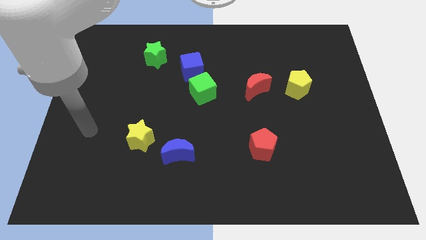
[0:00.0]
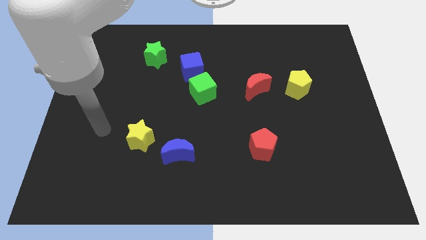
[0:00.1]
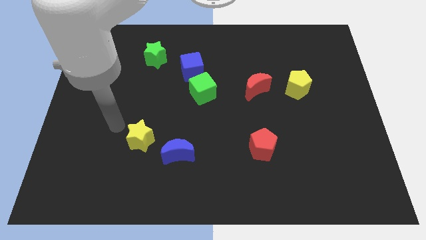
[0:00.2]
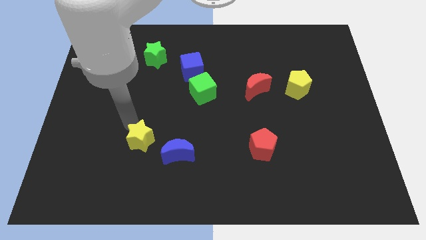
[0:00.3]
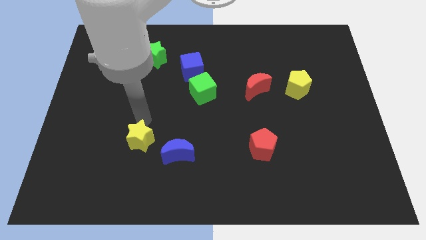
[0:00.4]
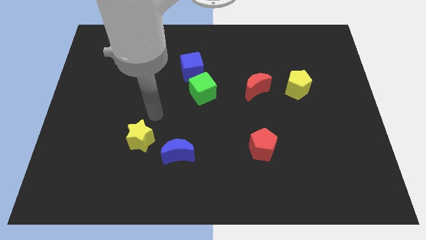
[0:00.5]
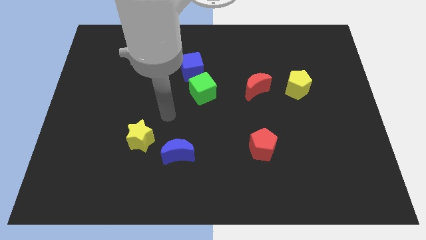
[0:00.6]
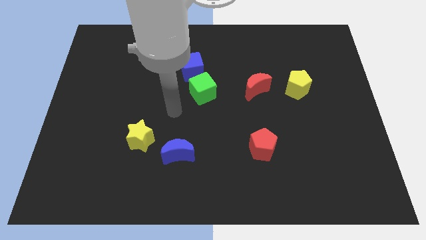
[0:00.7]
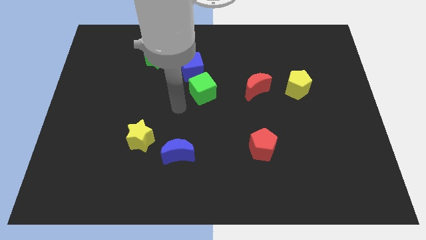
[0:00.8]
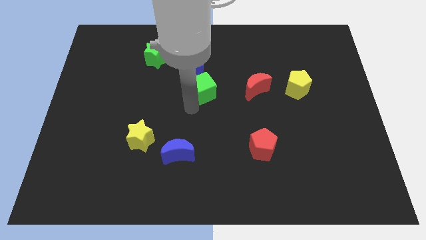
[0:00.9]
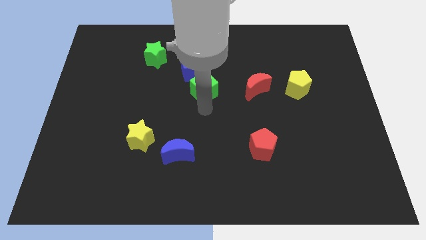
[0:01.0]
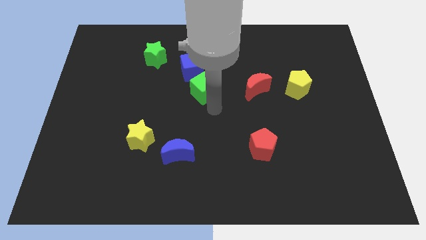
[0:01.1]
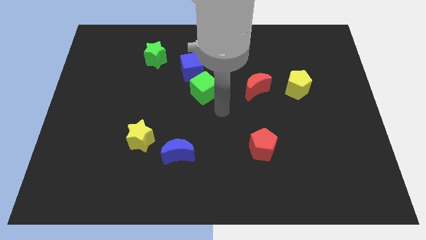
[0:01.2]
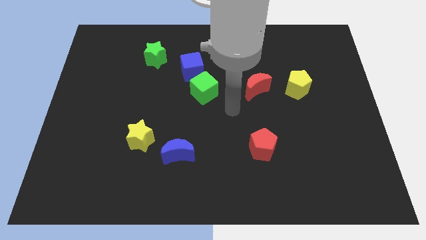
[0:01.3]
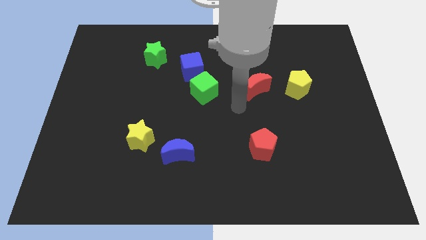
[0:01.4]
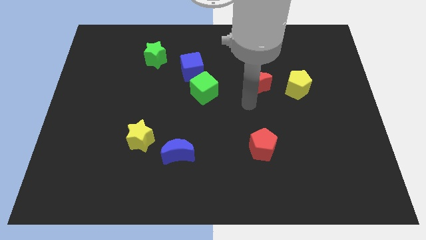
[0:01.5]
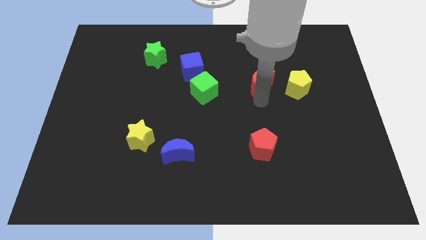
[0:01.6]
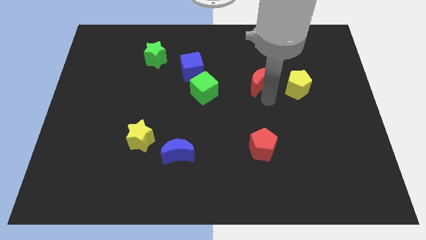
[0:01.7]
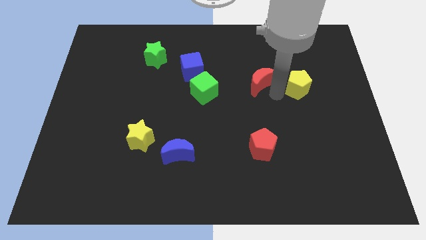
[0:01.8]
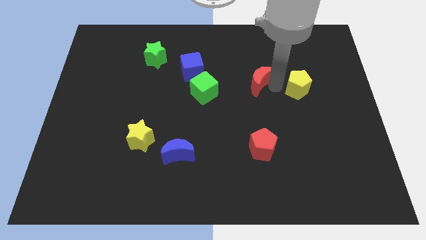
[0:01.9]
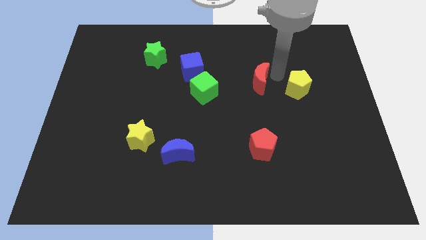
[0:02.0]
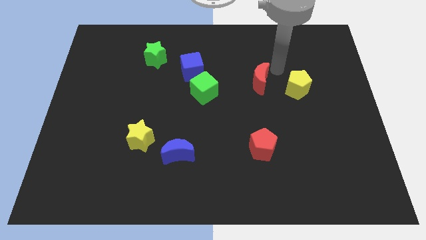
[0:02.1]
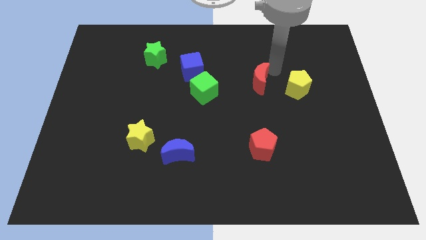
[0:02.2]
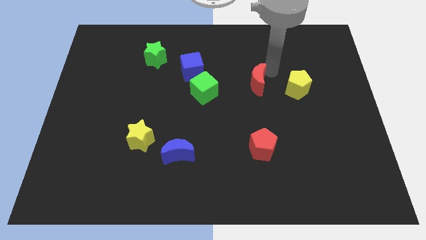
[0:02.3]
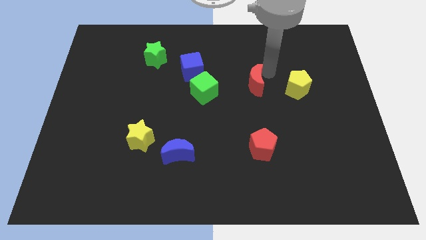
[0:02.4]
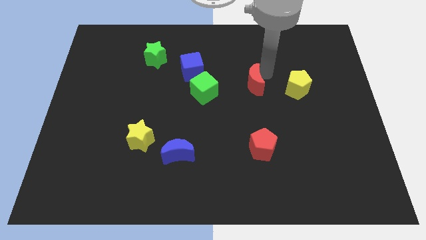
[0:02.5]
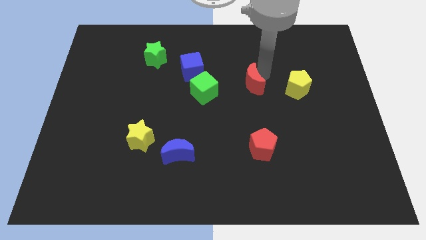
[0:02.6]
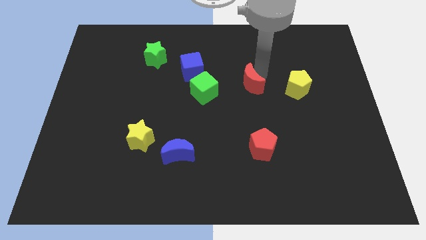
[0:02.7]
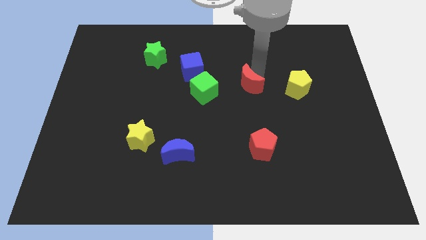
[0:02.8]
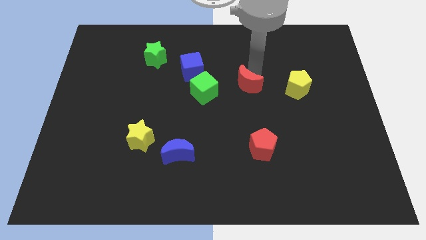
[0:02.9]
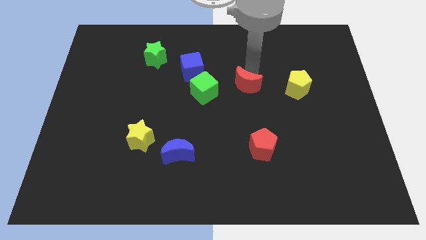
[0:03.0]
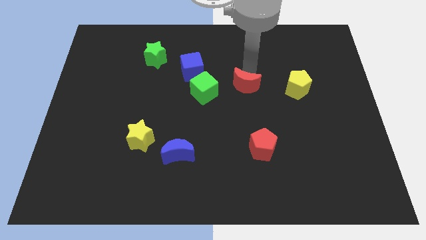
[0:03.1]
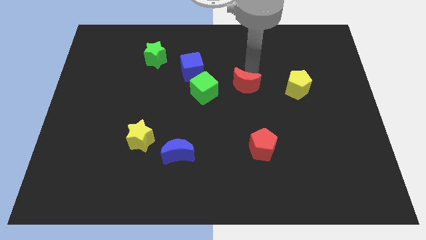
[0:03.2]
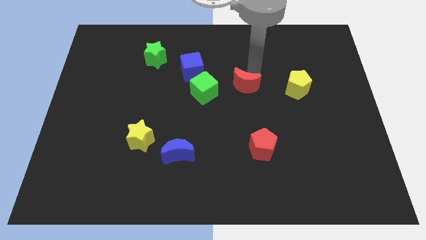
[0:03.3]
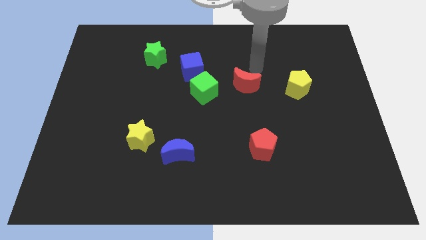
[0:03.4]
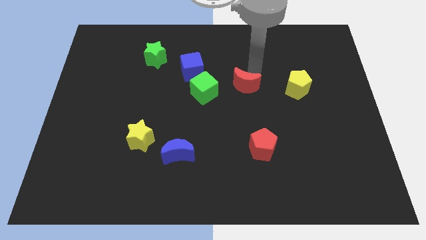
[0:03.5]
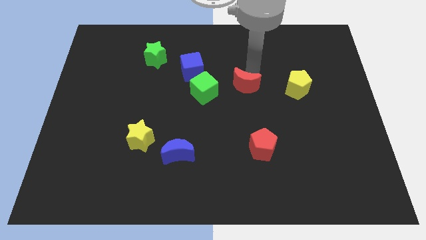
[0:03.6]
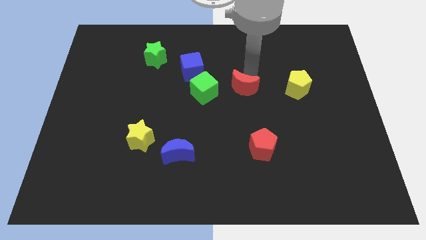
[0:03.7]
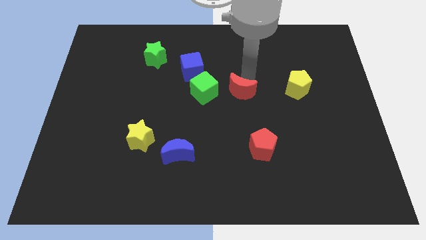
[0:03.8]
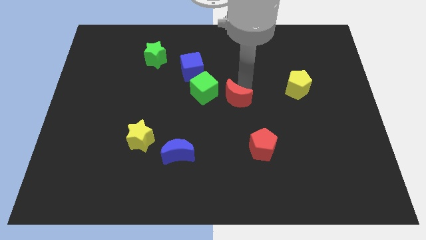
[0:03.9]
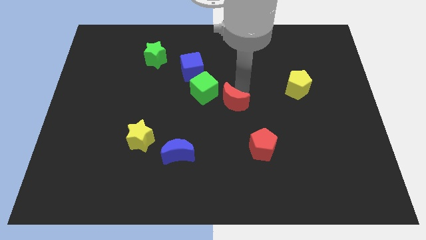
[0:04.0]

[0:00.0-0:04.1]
slightly slide the red moon downwards and to the left diagonally

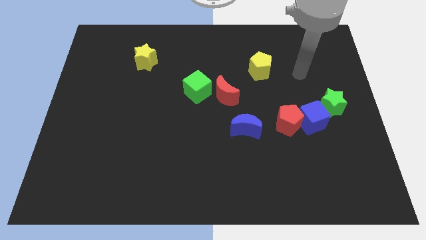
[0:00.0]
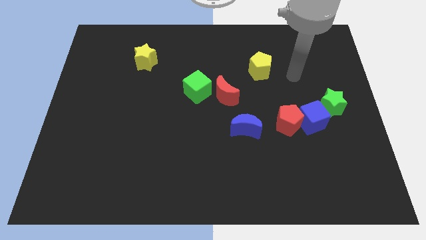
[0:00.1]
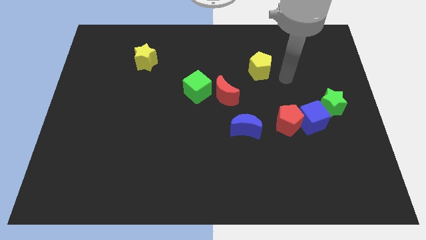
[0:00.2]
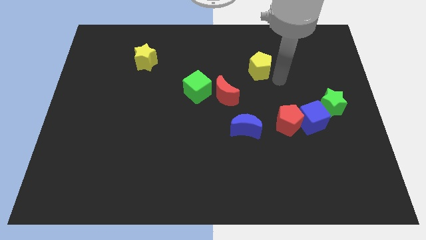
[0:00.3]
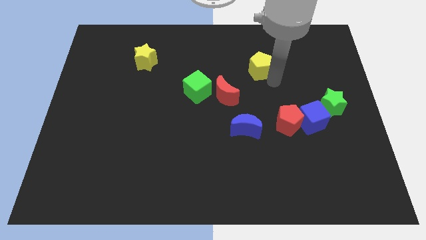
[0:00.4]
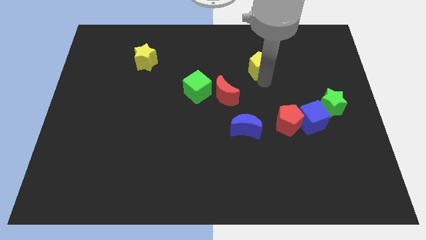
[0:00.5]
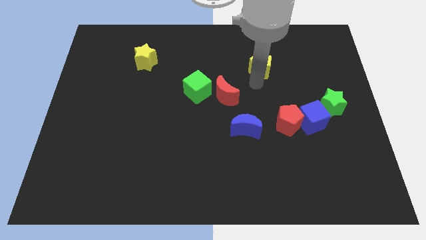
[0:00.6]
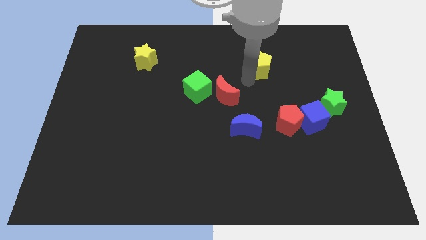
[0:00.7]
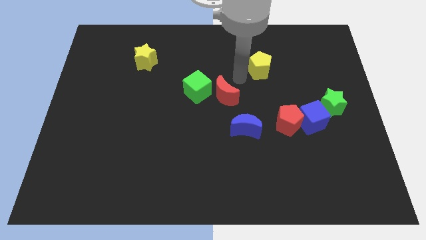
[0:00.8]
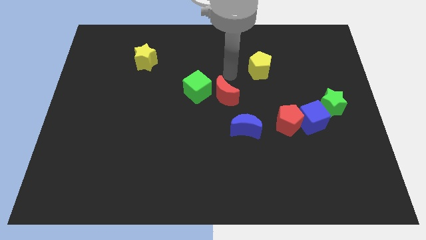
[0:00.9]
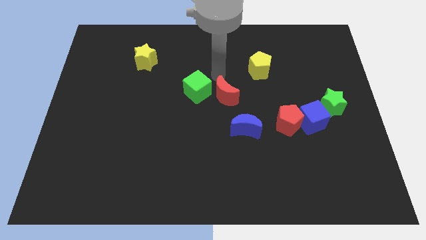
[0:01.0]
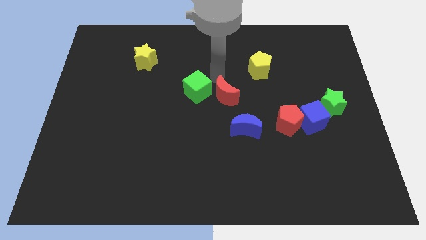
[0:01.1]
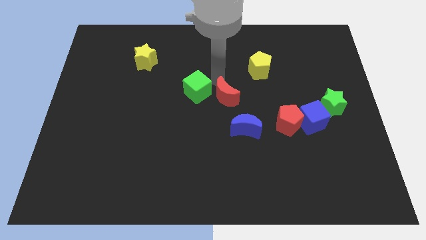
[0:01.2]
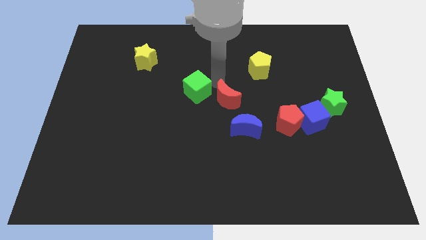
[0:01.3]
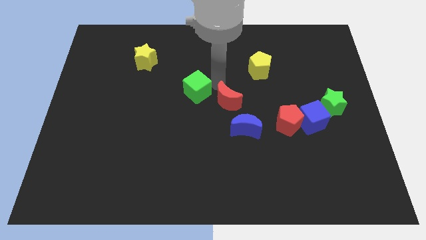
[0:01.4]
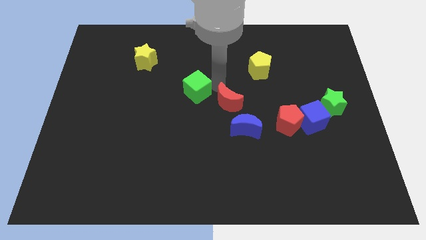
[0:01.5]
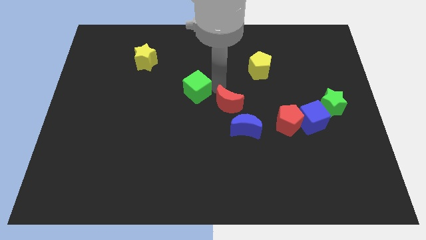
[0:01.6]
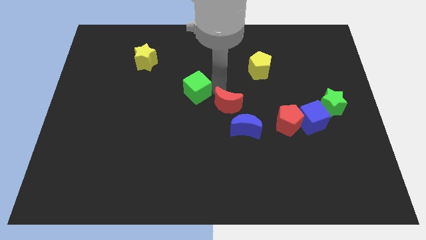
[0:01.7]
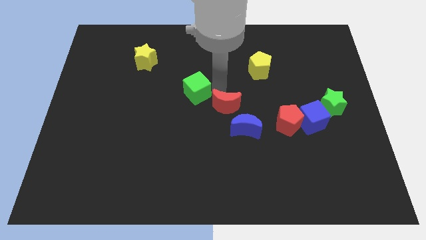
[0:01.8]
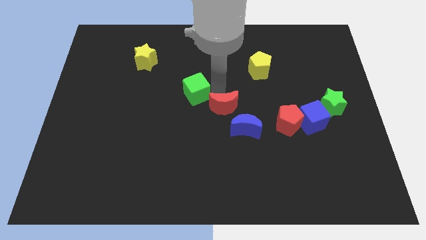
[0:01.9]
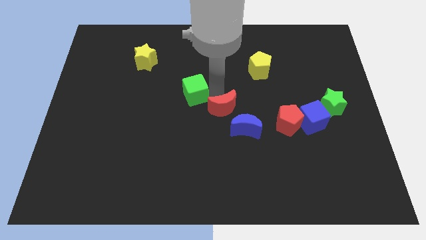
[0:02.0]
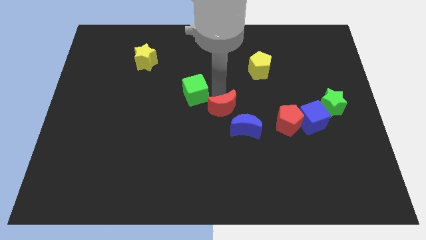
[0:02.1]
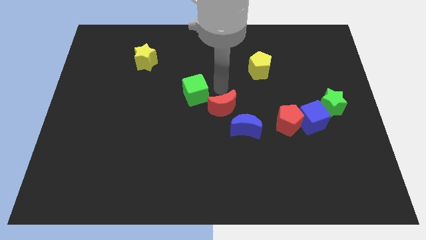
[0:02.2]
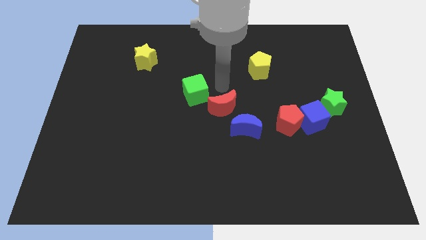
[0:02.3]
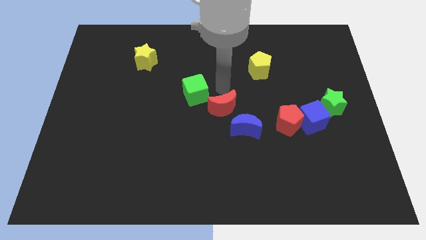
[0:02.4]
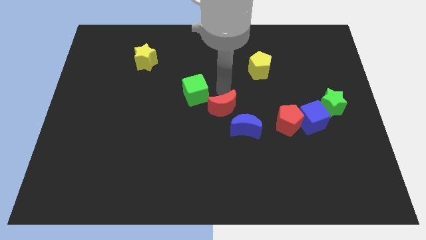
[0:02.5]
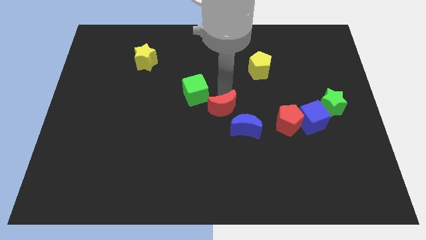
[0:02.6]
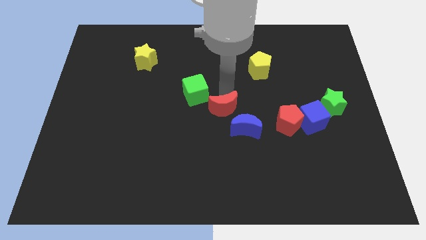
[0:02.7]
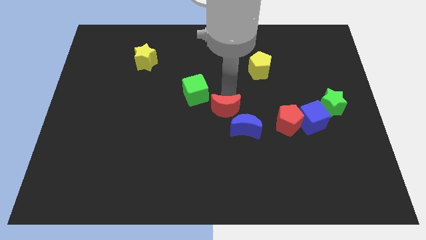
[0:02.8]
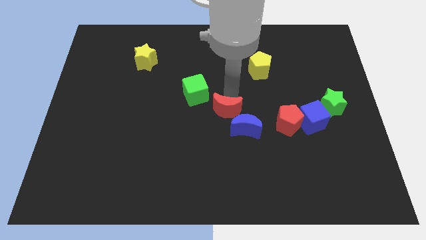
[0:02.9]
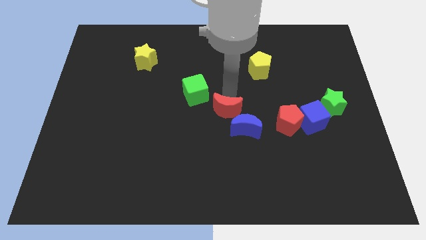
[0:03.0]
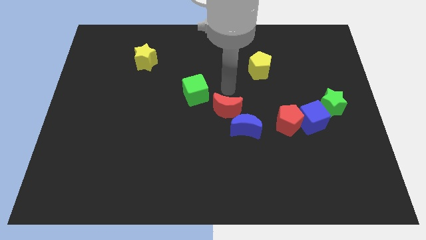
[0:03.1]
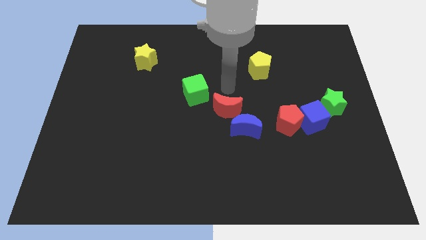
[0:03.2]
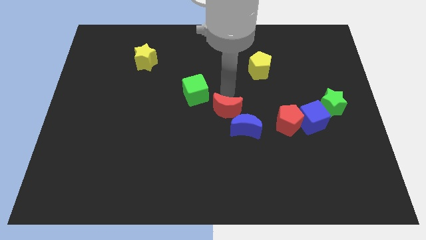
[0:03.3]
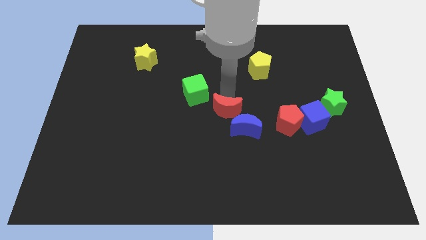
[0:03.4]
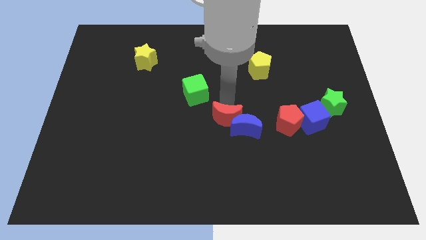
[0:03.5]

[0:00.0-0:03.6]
push the red moon a little bit down

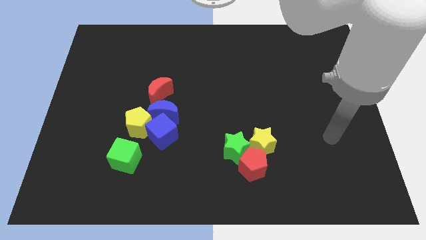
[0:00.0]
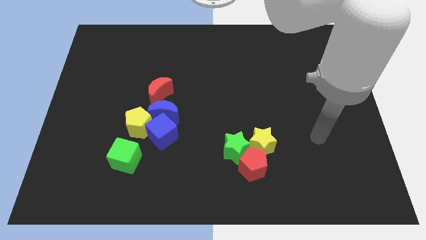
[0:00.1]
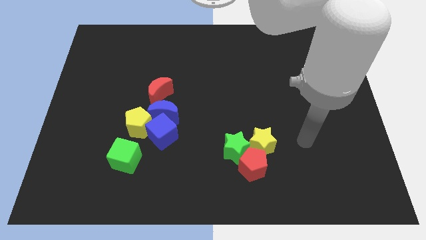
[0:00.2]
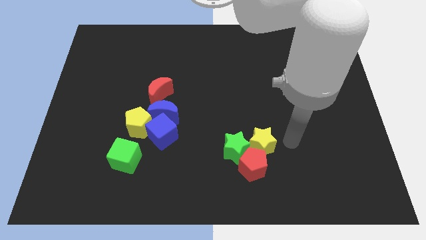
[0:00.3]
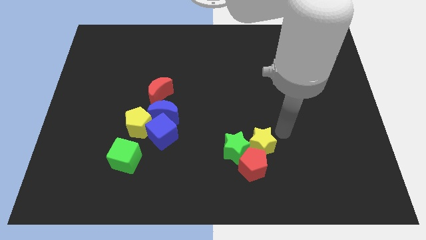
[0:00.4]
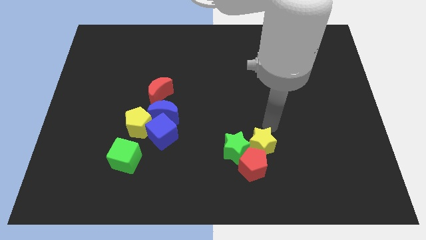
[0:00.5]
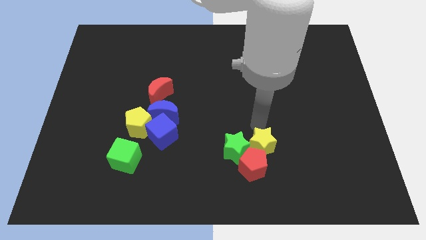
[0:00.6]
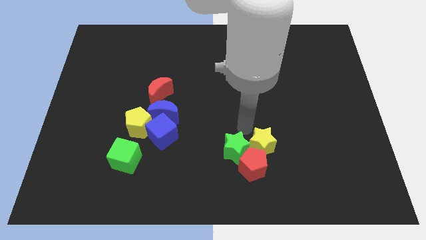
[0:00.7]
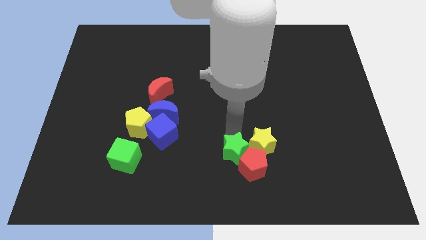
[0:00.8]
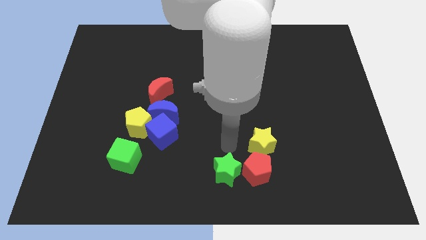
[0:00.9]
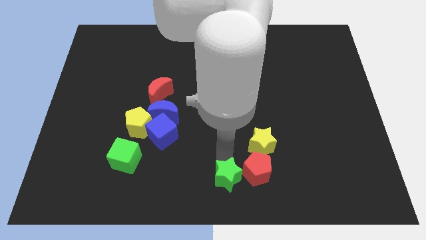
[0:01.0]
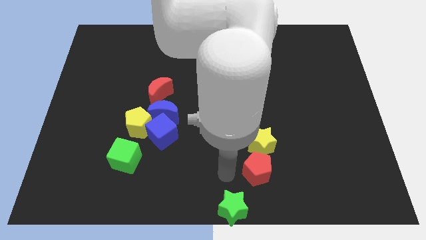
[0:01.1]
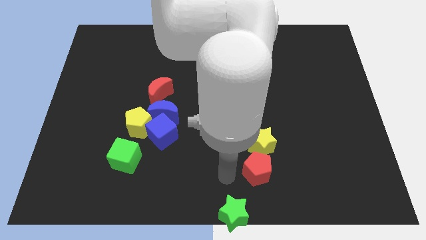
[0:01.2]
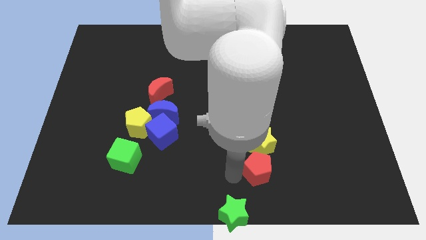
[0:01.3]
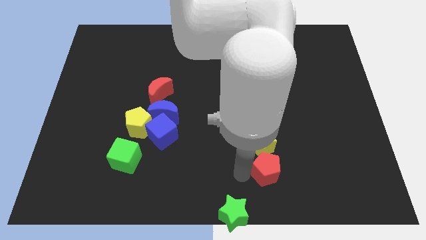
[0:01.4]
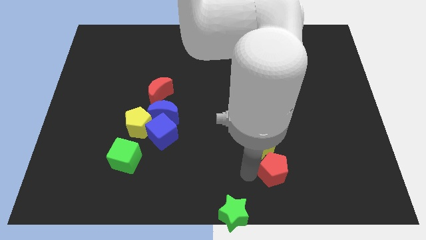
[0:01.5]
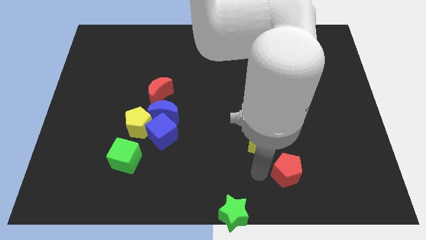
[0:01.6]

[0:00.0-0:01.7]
push the red pentagon right a little bit
